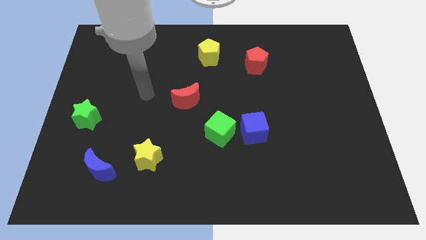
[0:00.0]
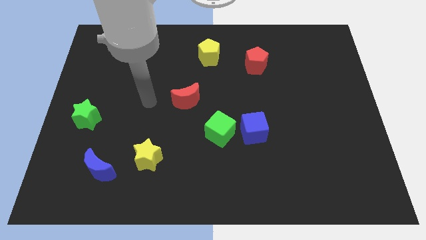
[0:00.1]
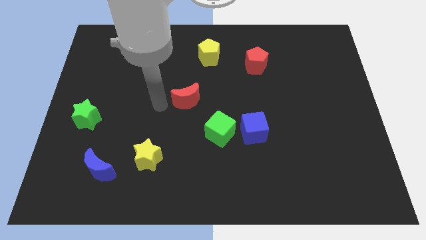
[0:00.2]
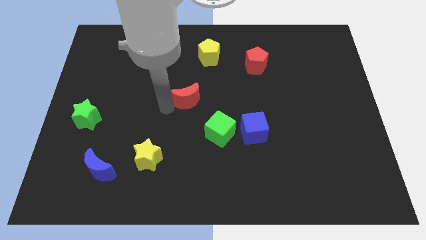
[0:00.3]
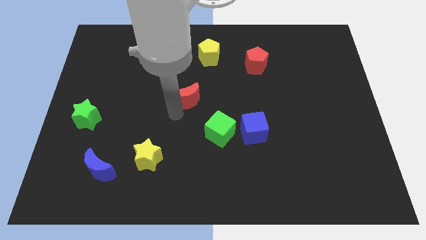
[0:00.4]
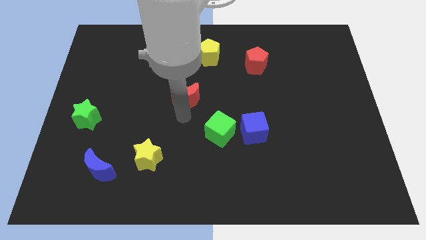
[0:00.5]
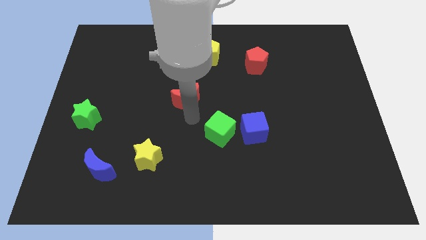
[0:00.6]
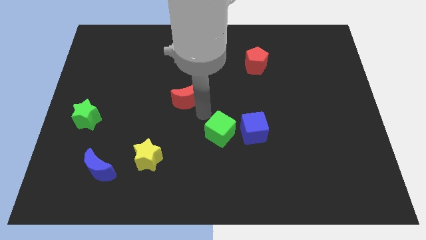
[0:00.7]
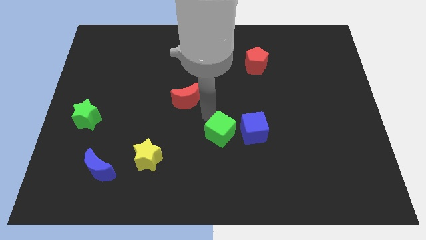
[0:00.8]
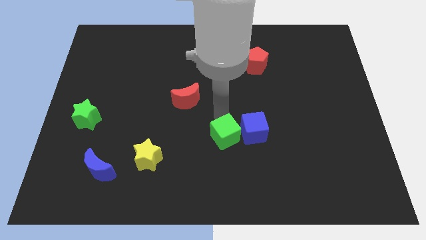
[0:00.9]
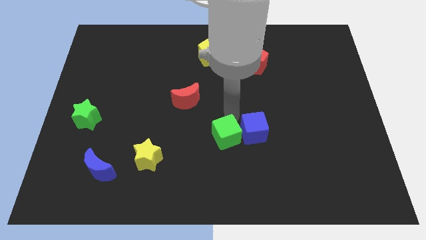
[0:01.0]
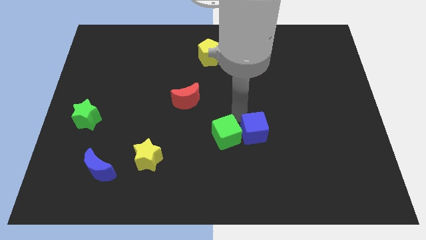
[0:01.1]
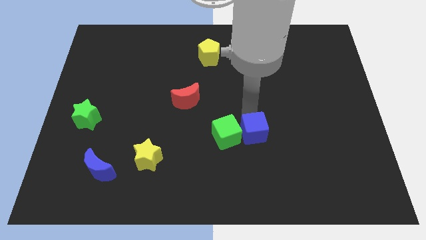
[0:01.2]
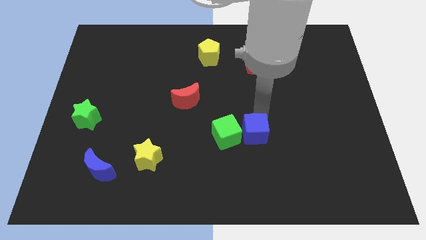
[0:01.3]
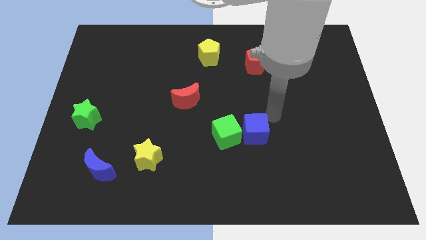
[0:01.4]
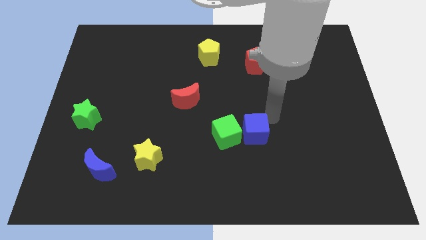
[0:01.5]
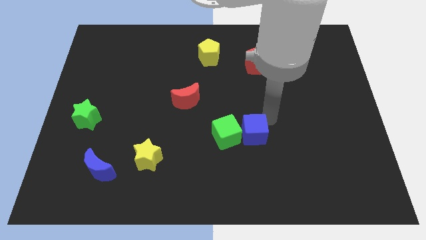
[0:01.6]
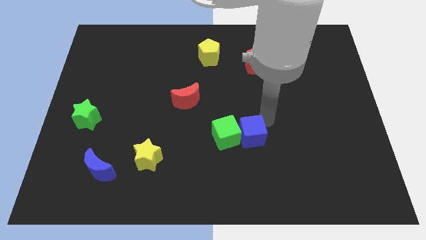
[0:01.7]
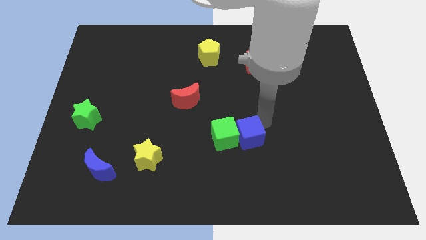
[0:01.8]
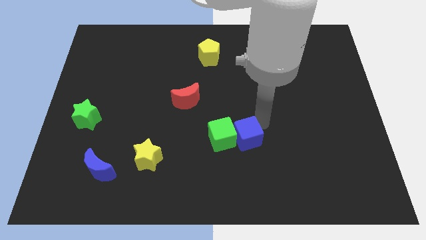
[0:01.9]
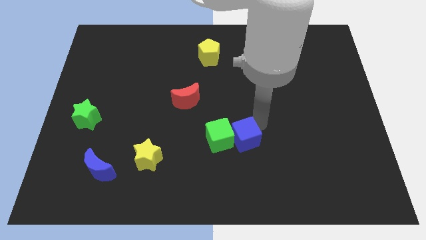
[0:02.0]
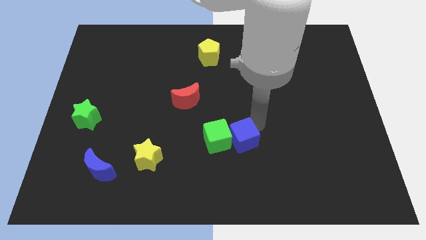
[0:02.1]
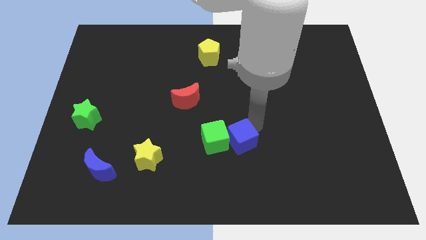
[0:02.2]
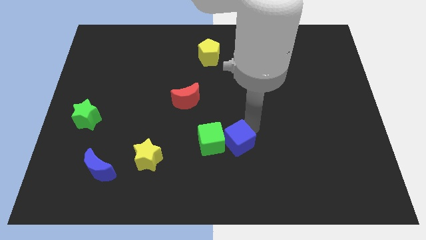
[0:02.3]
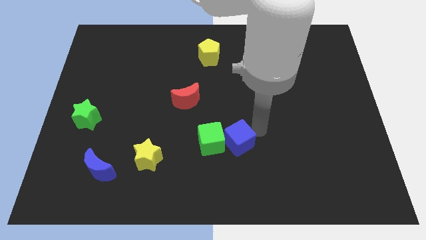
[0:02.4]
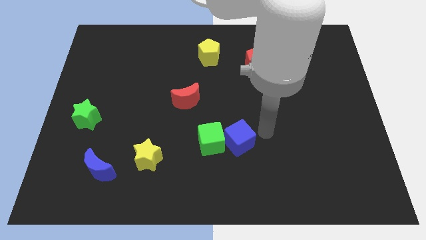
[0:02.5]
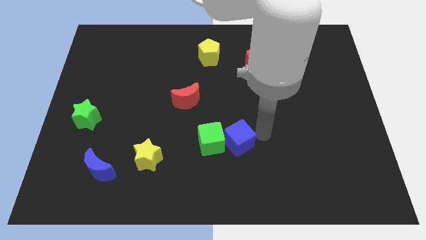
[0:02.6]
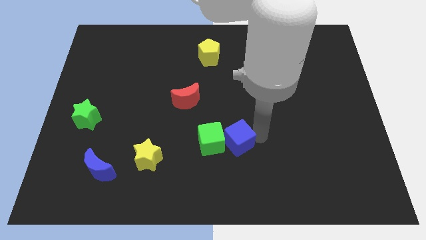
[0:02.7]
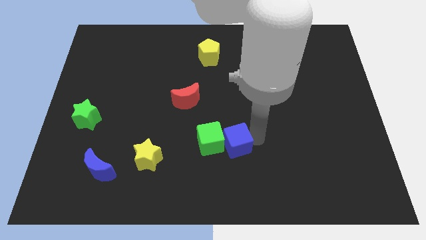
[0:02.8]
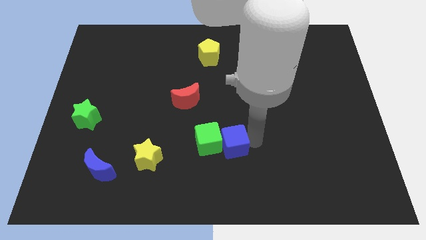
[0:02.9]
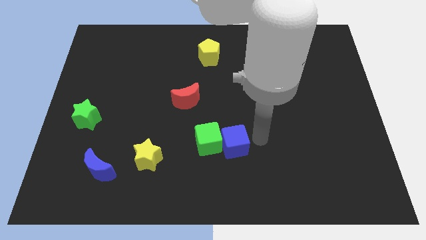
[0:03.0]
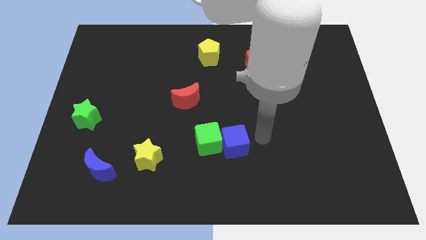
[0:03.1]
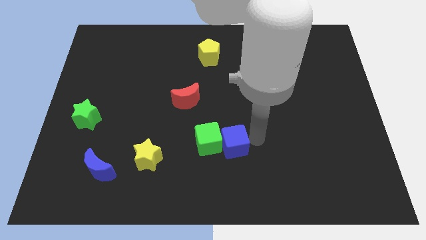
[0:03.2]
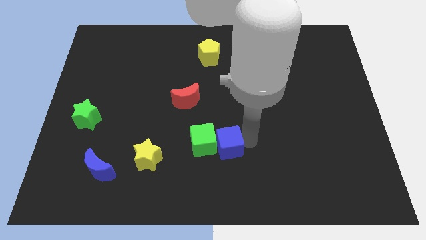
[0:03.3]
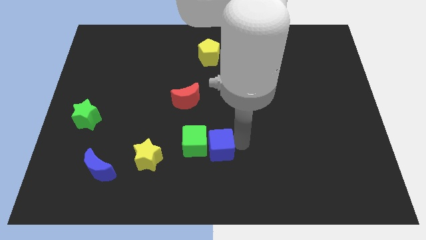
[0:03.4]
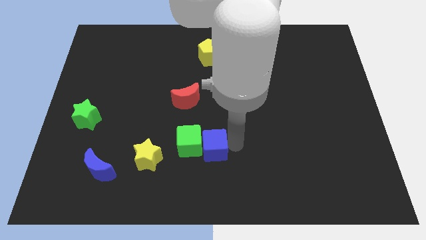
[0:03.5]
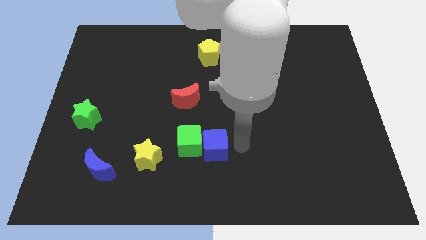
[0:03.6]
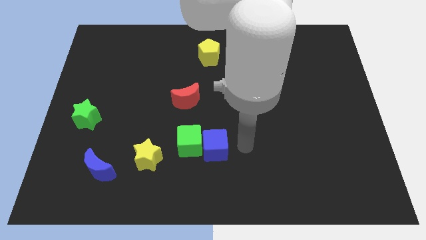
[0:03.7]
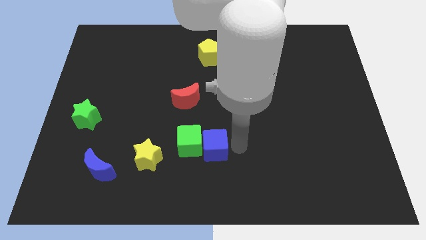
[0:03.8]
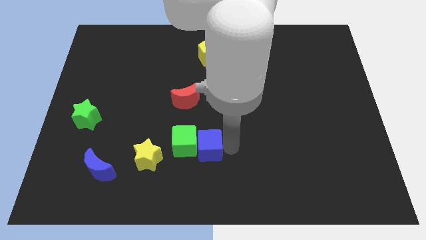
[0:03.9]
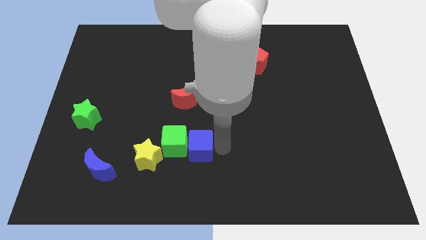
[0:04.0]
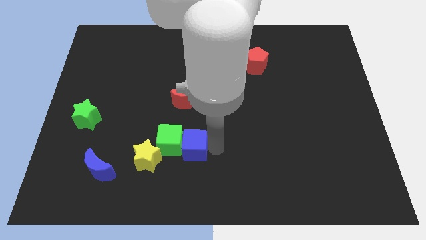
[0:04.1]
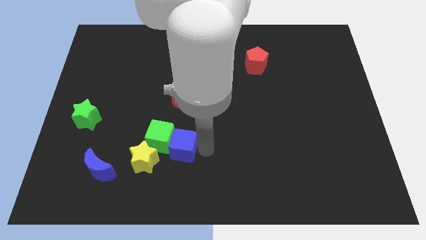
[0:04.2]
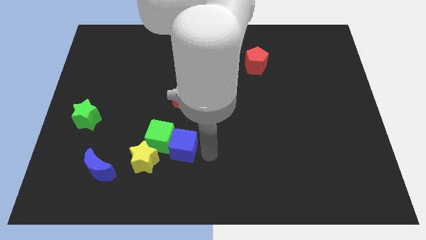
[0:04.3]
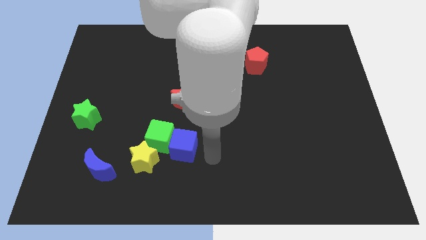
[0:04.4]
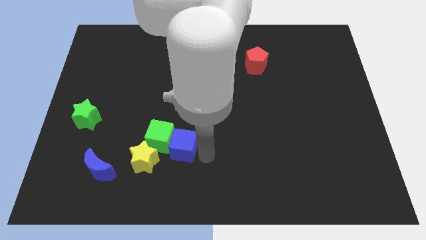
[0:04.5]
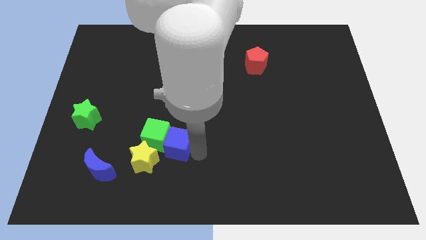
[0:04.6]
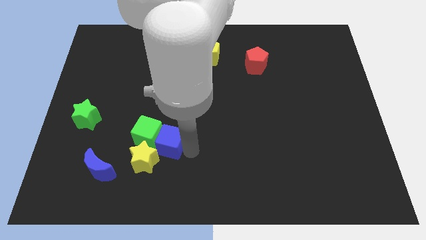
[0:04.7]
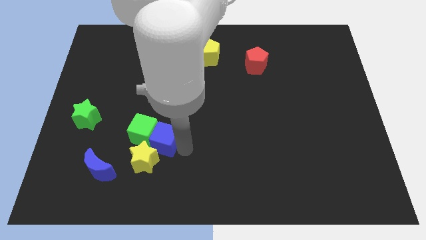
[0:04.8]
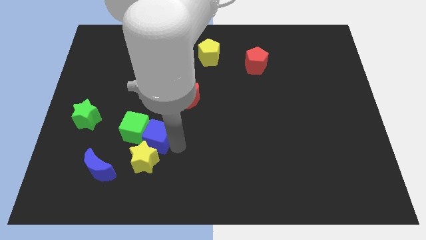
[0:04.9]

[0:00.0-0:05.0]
push the blue cube left

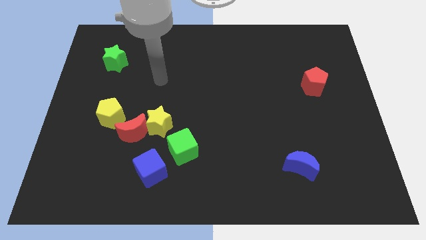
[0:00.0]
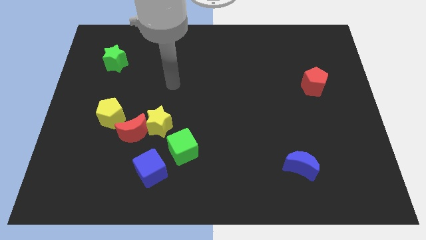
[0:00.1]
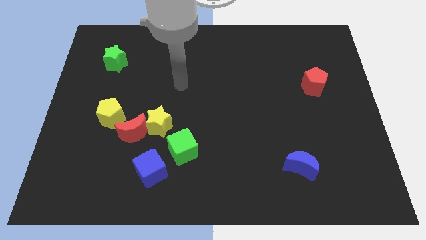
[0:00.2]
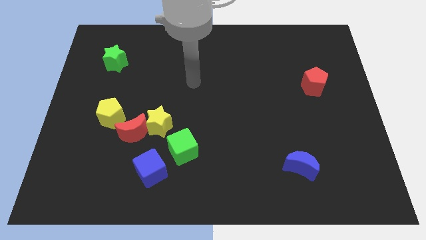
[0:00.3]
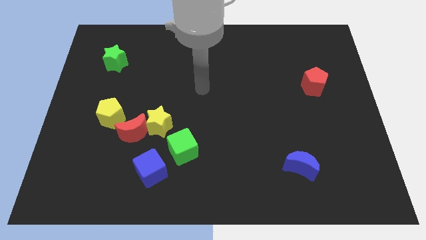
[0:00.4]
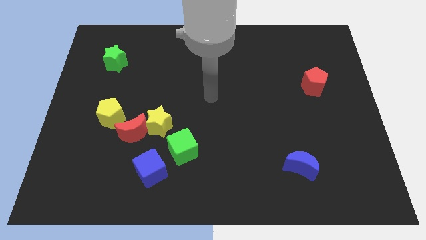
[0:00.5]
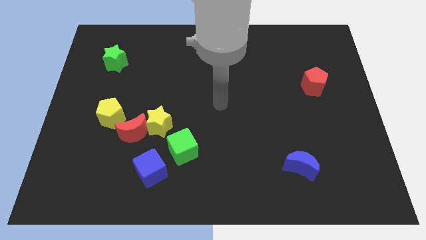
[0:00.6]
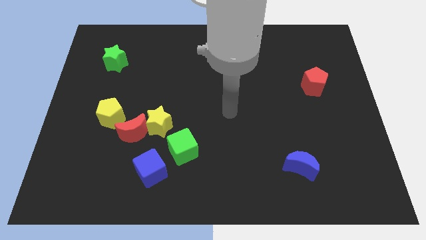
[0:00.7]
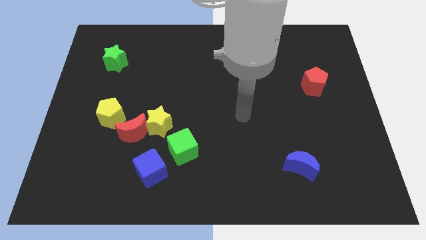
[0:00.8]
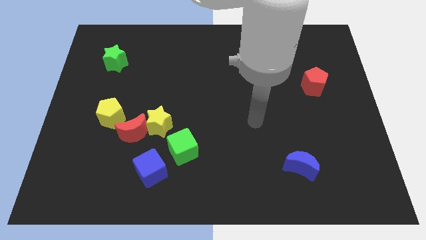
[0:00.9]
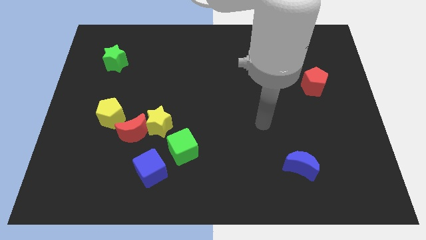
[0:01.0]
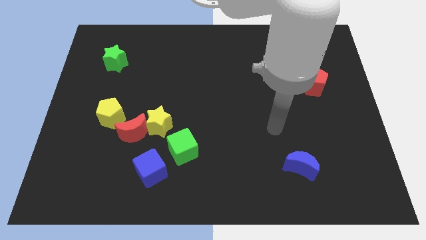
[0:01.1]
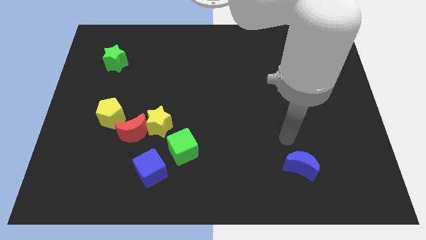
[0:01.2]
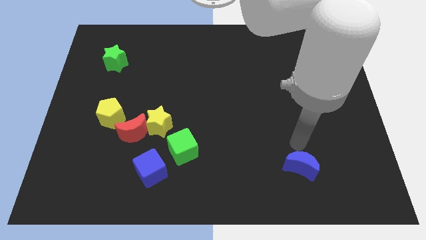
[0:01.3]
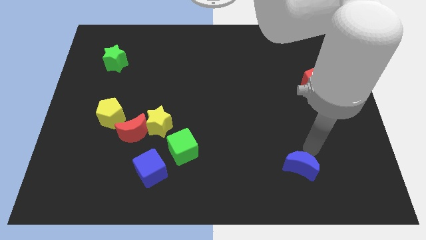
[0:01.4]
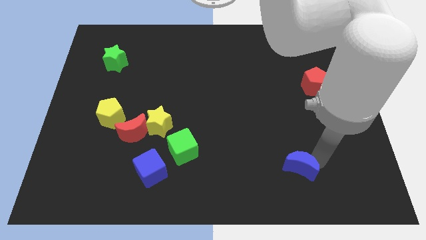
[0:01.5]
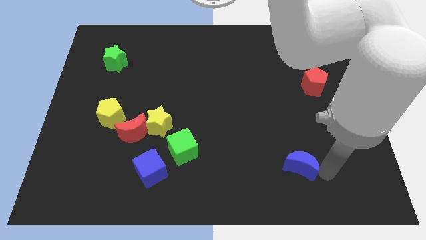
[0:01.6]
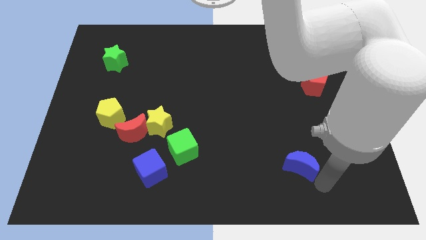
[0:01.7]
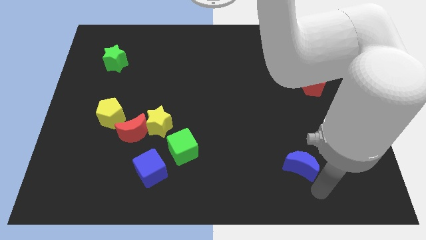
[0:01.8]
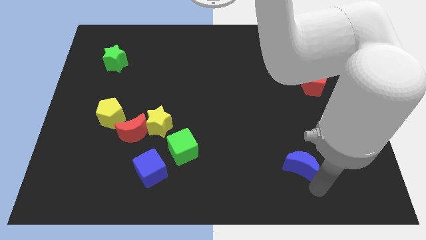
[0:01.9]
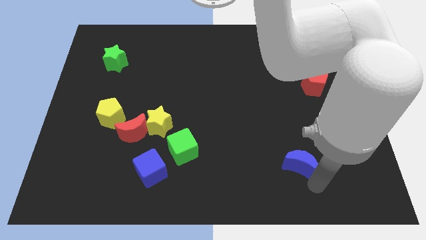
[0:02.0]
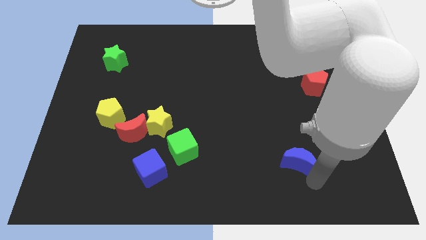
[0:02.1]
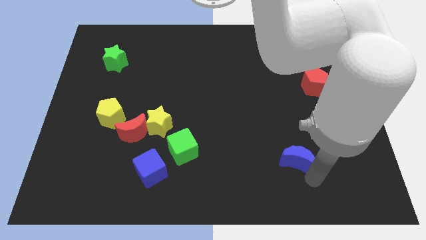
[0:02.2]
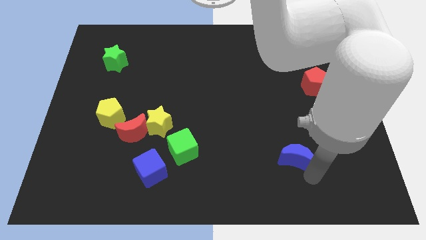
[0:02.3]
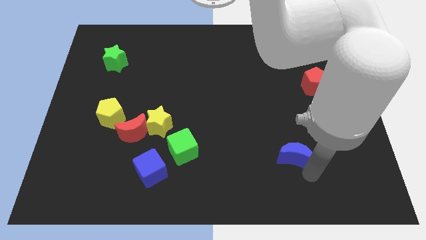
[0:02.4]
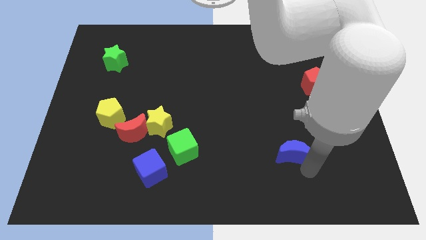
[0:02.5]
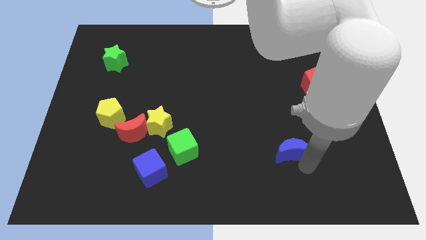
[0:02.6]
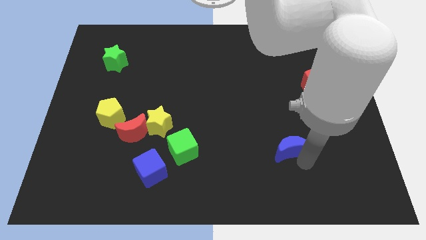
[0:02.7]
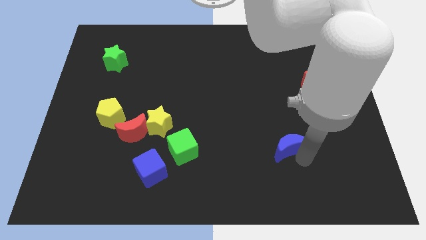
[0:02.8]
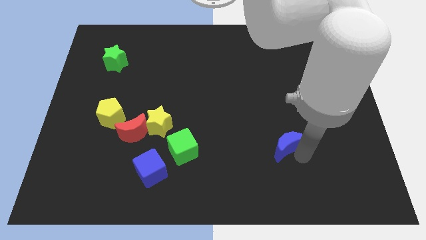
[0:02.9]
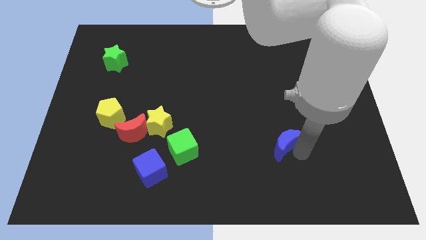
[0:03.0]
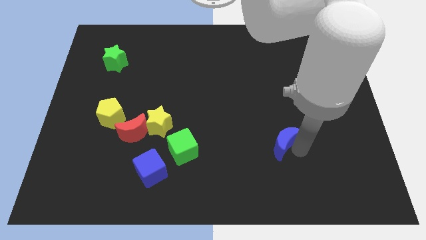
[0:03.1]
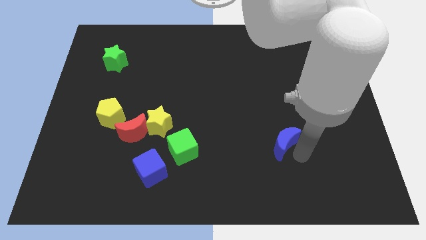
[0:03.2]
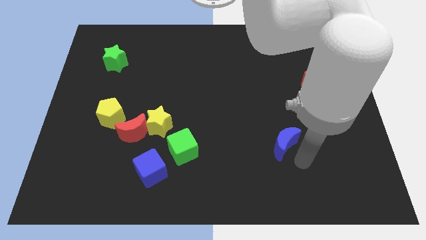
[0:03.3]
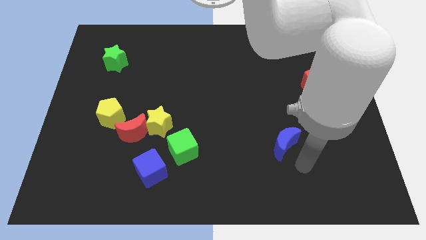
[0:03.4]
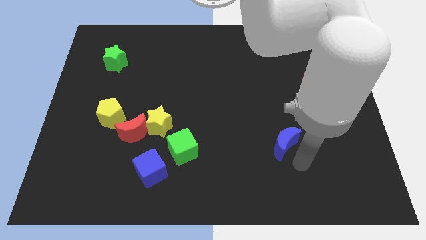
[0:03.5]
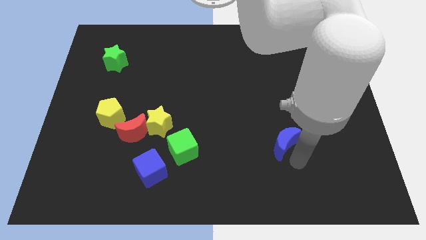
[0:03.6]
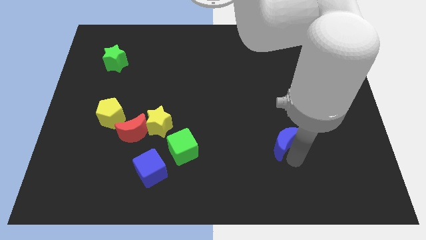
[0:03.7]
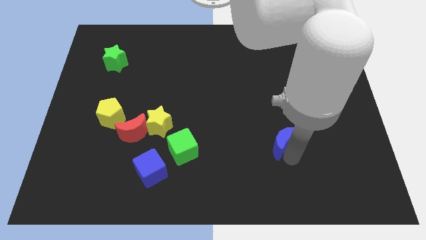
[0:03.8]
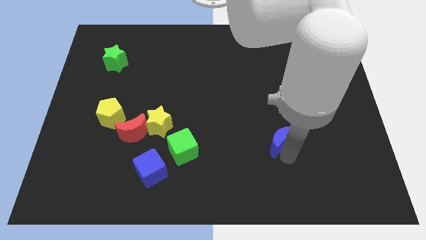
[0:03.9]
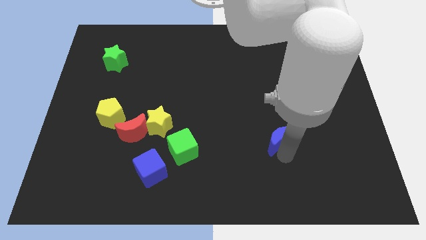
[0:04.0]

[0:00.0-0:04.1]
slightly push the blue moon upwards and then left
